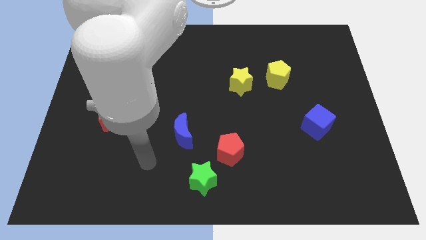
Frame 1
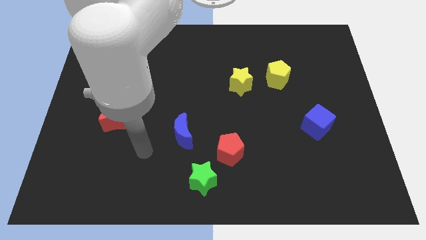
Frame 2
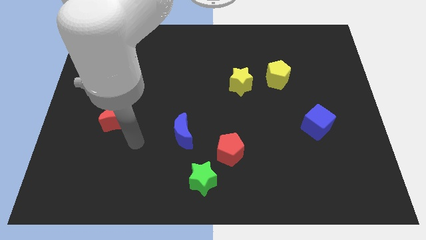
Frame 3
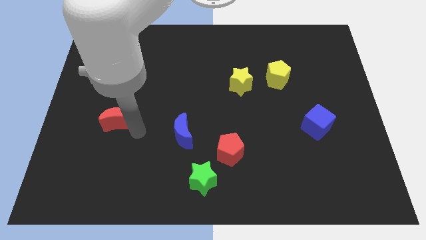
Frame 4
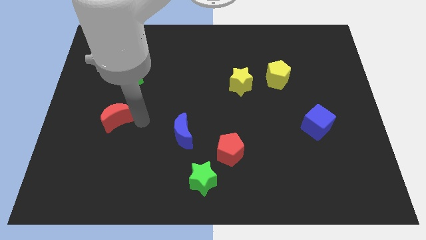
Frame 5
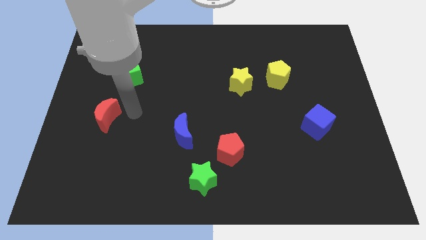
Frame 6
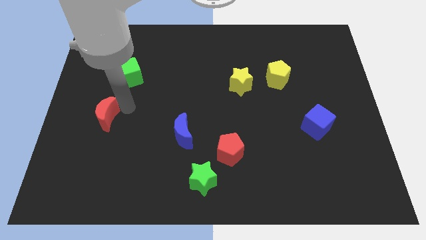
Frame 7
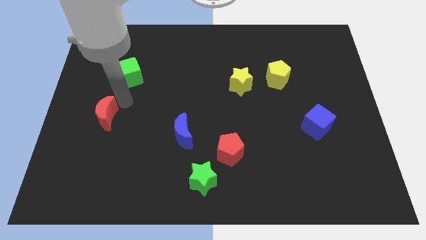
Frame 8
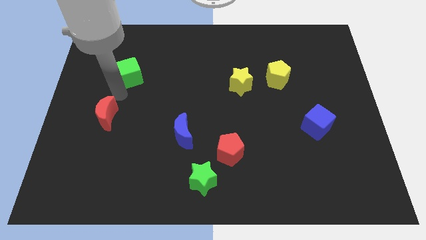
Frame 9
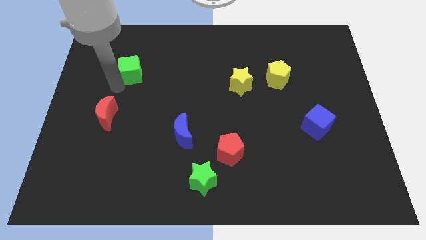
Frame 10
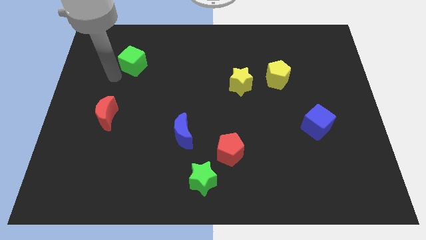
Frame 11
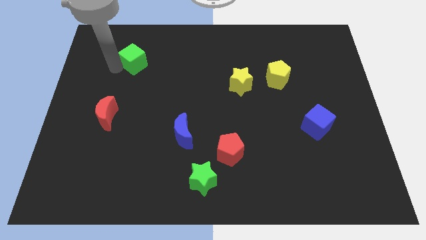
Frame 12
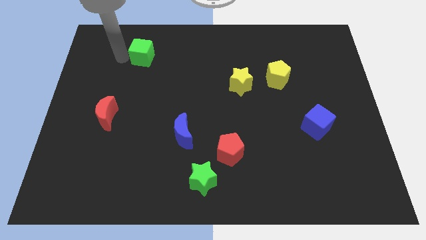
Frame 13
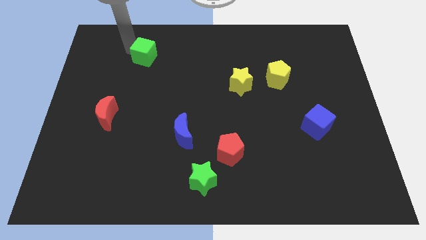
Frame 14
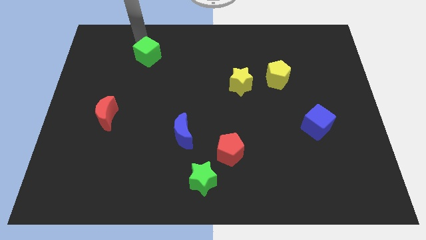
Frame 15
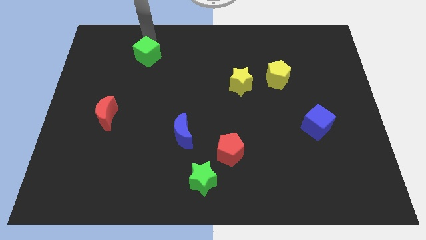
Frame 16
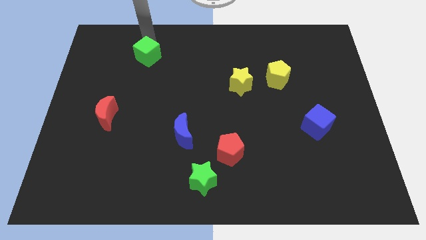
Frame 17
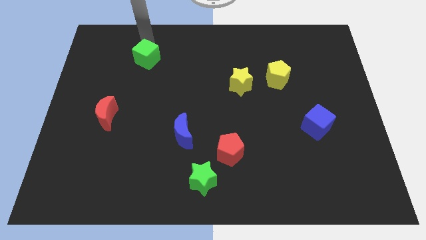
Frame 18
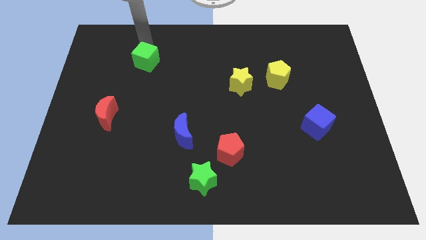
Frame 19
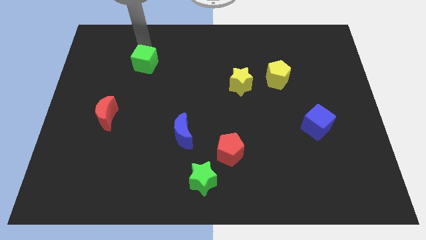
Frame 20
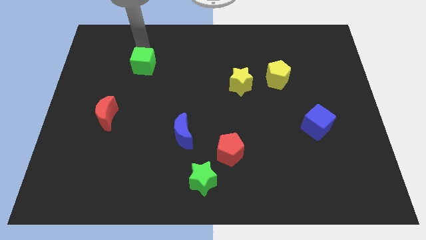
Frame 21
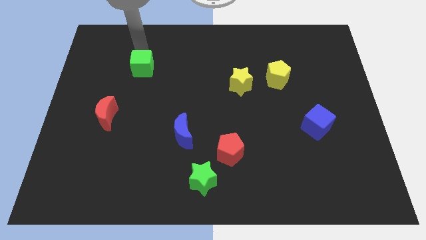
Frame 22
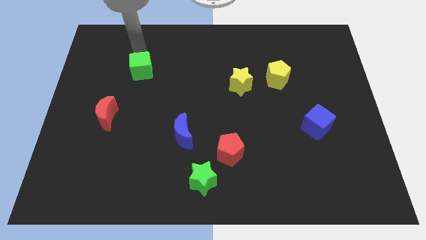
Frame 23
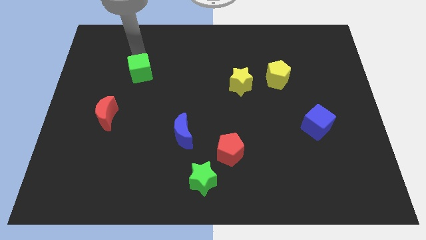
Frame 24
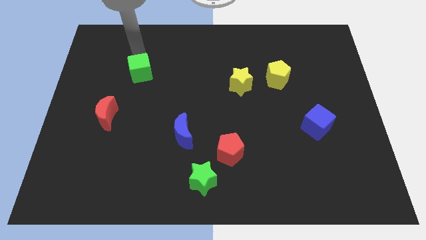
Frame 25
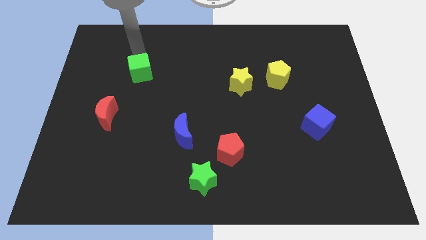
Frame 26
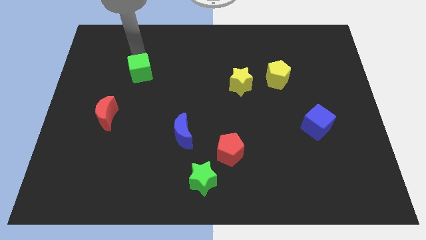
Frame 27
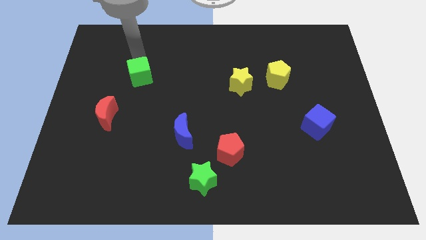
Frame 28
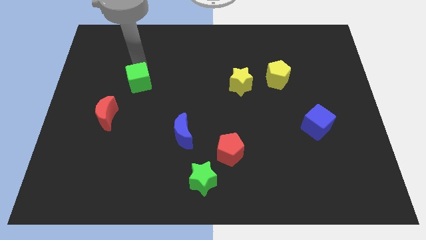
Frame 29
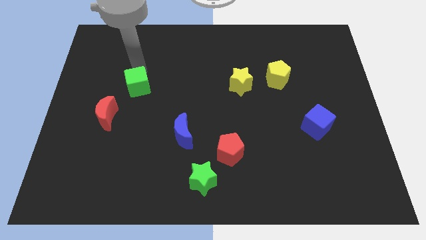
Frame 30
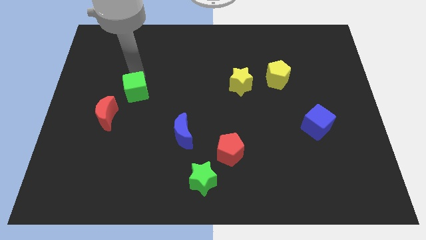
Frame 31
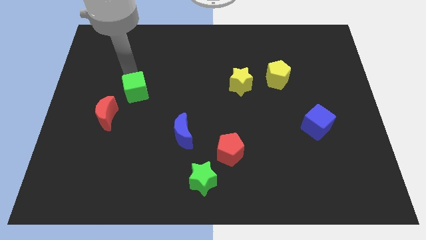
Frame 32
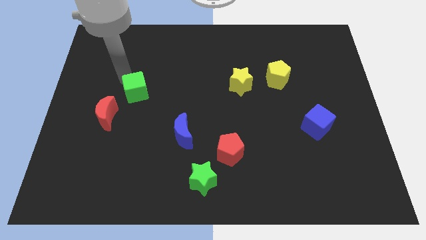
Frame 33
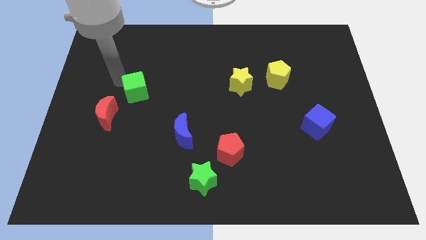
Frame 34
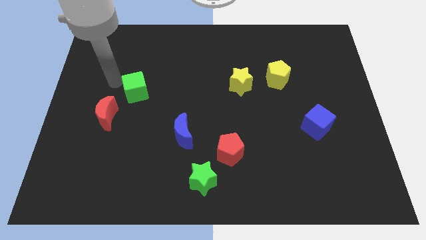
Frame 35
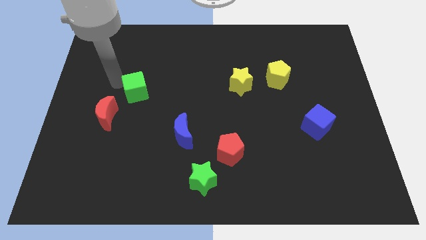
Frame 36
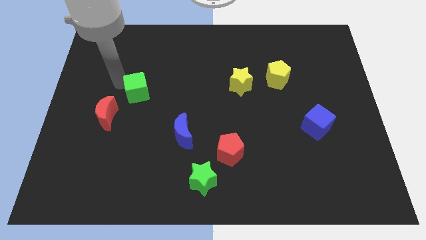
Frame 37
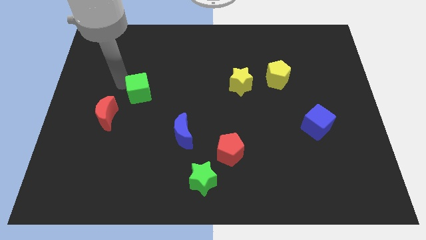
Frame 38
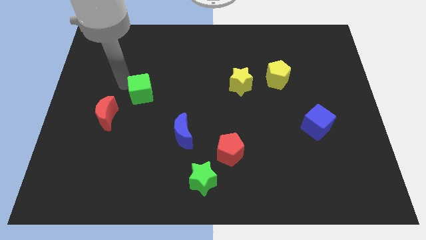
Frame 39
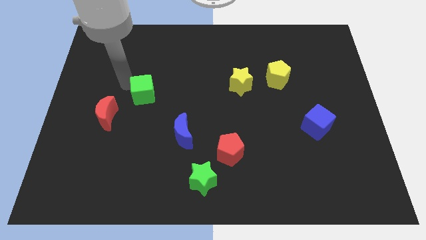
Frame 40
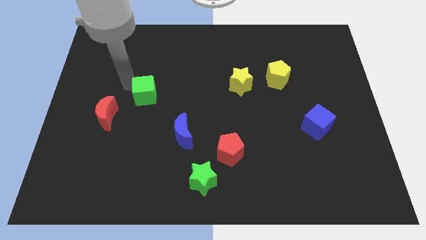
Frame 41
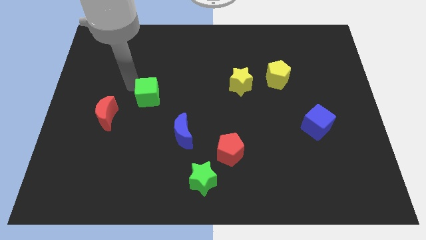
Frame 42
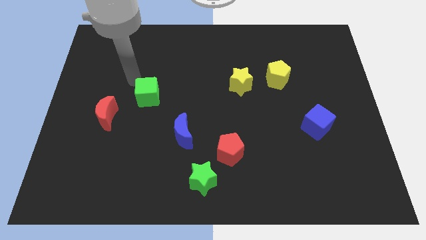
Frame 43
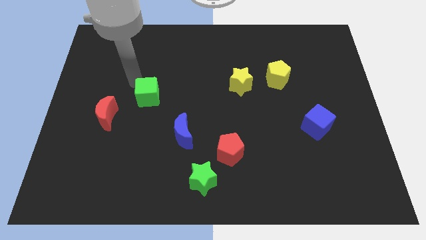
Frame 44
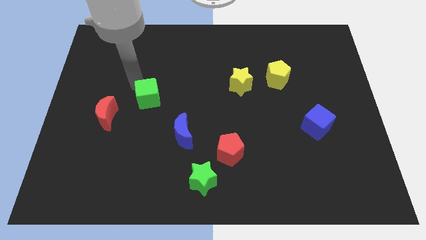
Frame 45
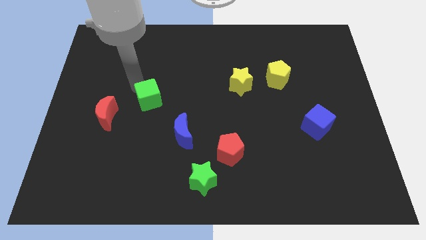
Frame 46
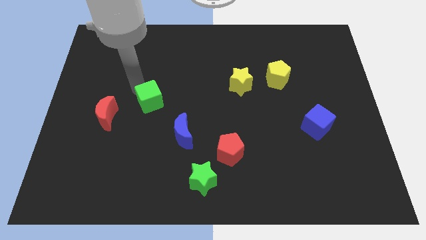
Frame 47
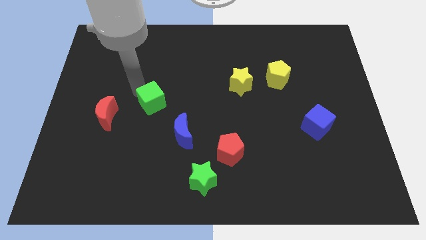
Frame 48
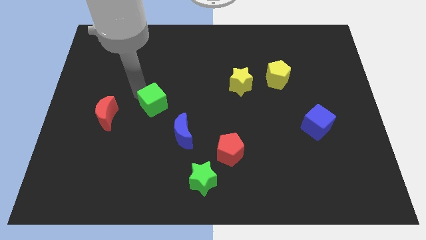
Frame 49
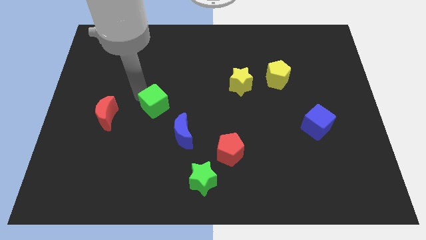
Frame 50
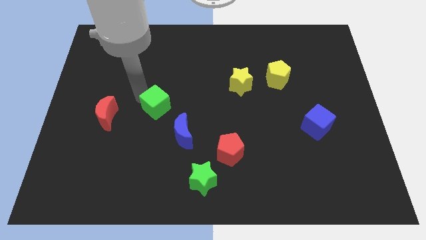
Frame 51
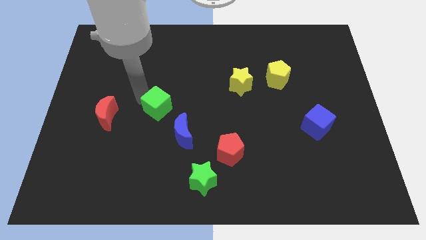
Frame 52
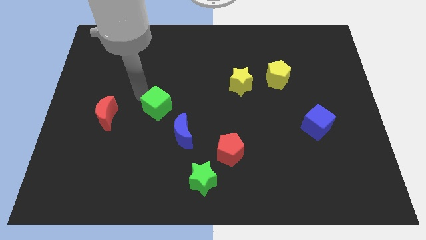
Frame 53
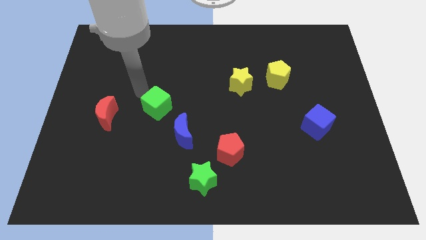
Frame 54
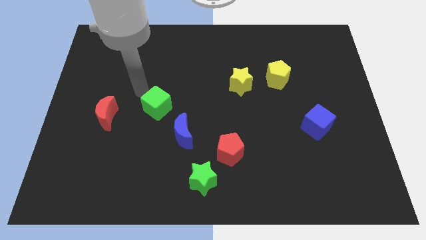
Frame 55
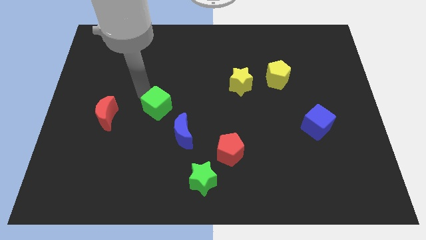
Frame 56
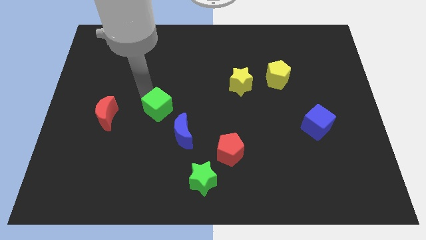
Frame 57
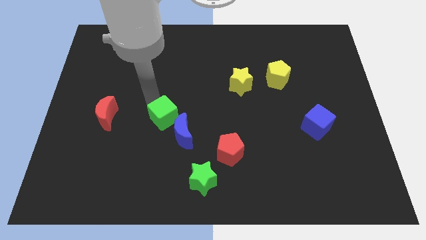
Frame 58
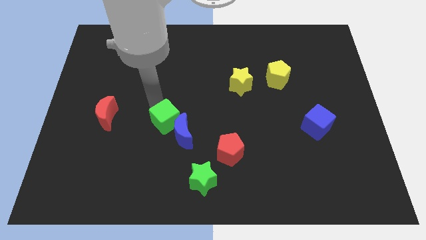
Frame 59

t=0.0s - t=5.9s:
move the green cube towards the blue moon

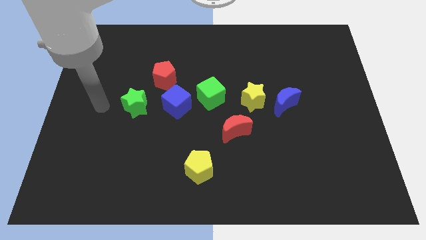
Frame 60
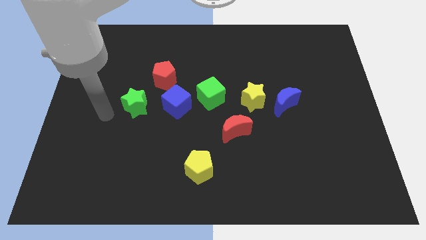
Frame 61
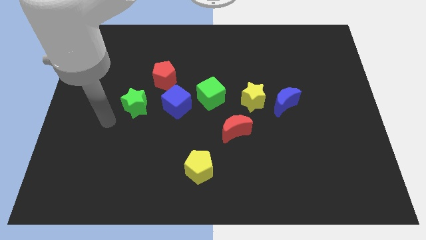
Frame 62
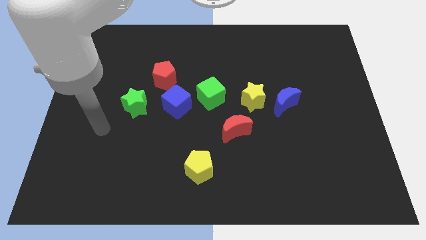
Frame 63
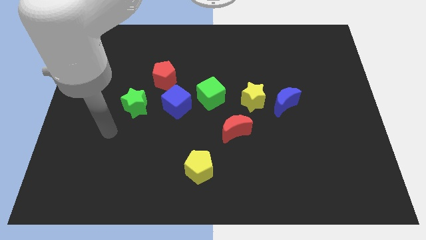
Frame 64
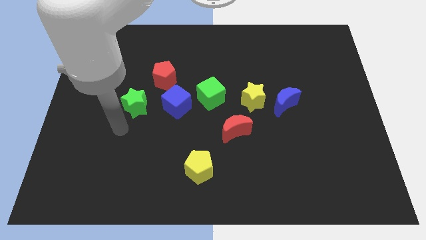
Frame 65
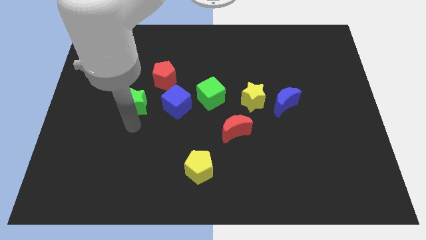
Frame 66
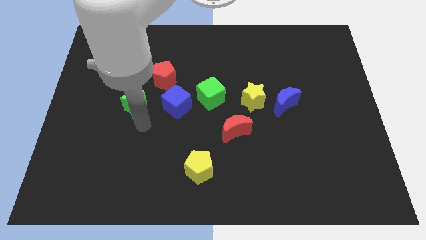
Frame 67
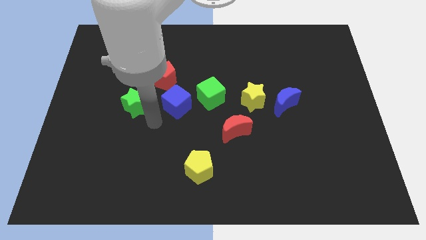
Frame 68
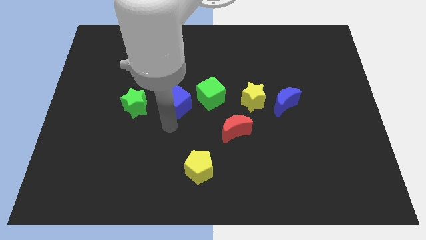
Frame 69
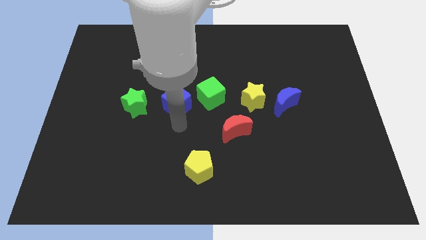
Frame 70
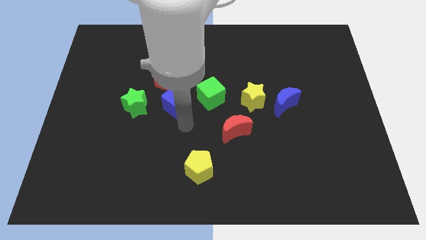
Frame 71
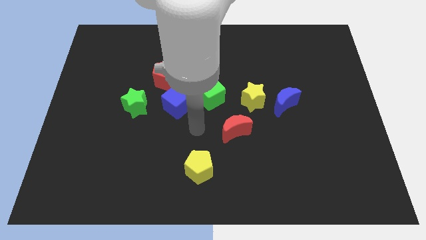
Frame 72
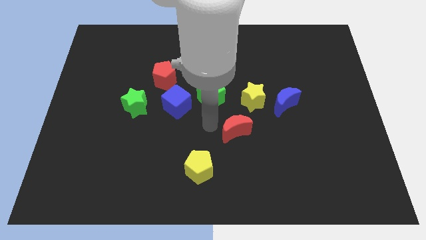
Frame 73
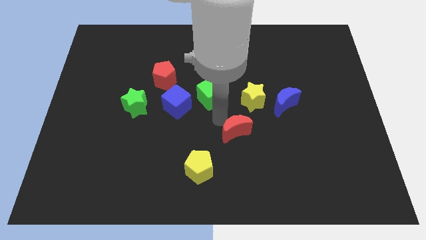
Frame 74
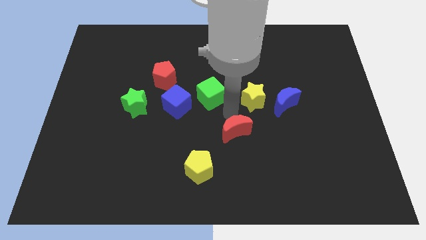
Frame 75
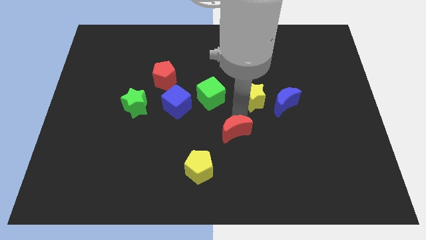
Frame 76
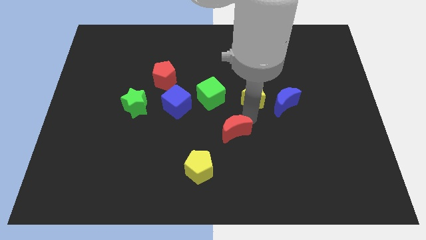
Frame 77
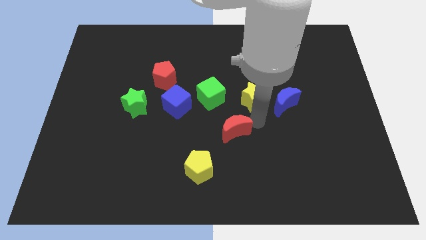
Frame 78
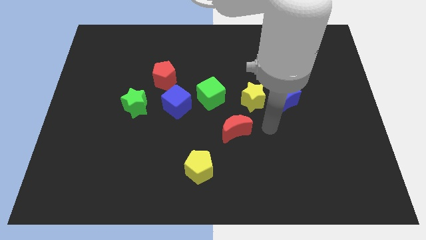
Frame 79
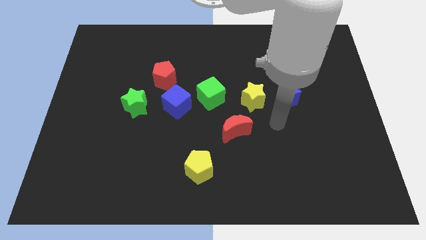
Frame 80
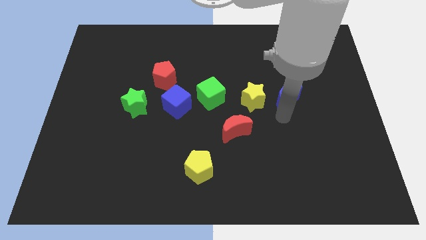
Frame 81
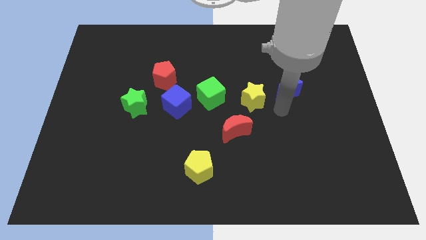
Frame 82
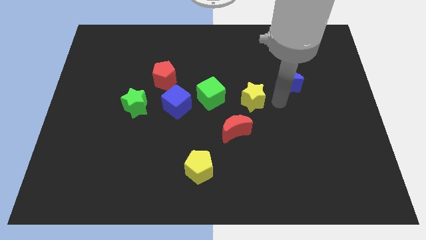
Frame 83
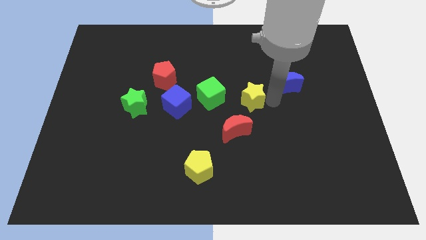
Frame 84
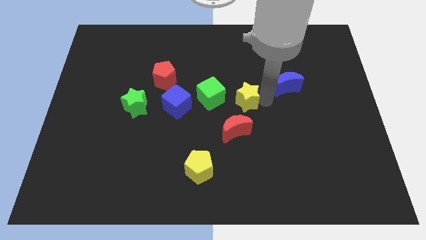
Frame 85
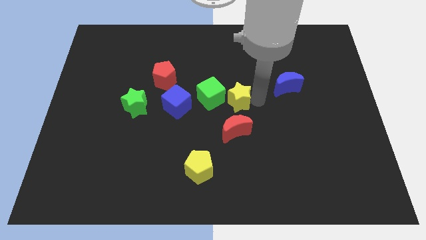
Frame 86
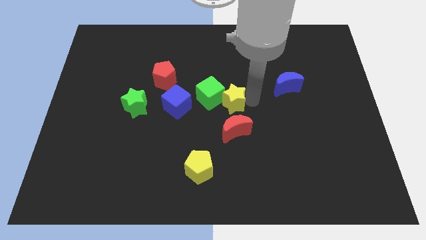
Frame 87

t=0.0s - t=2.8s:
move the yellow star close to the green cube

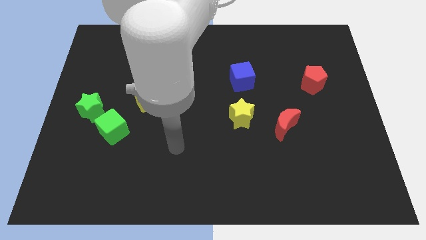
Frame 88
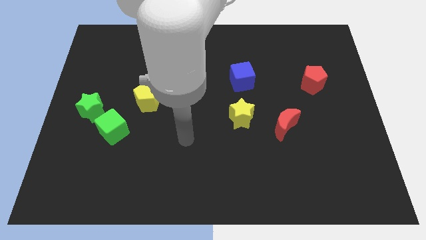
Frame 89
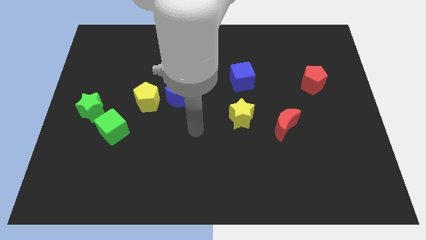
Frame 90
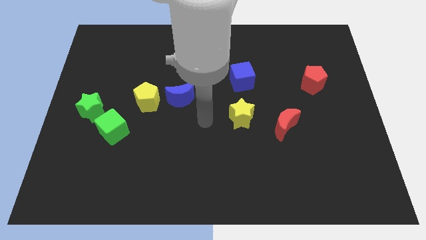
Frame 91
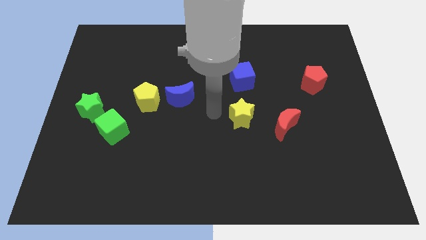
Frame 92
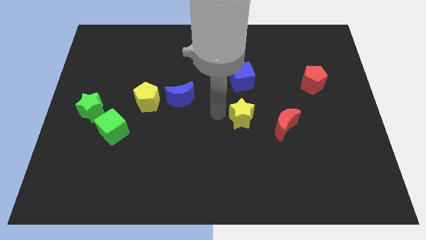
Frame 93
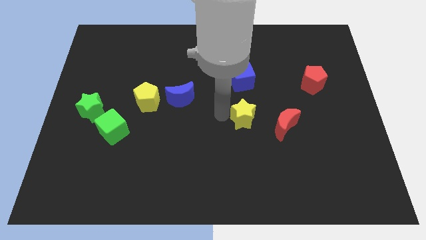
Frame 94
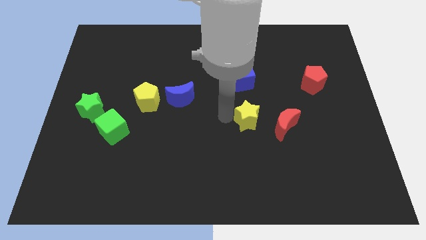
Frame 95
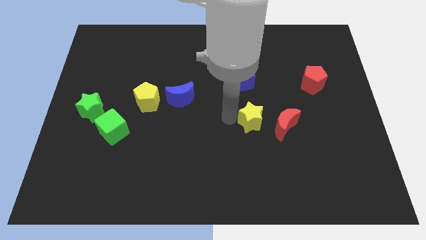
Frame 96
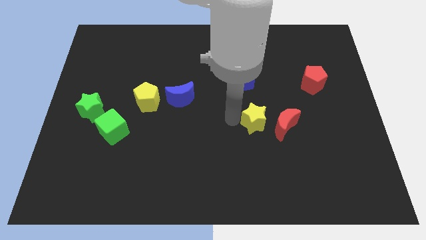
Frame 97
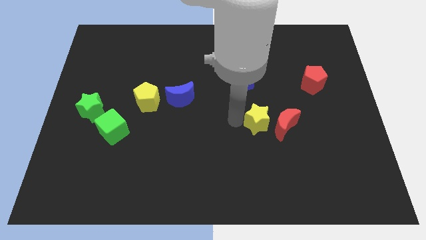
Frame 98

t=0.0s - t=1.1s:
slide the yellow star close to the red moon
